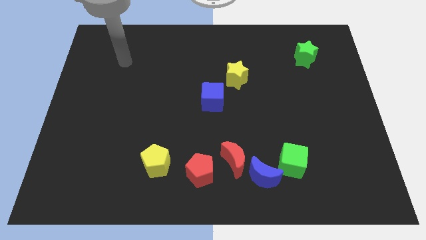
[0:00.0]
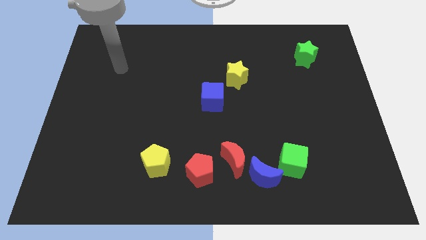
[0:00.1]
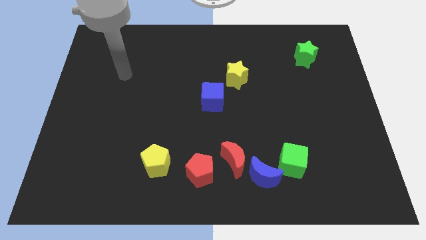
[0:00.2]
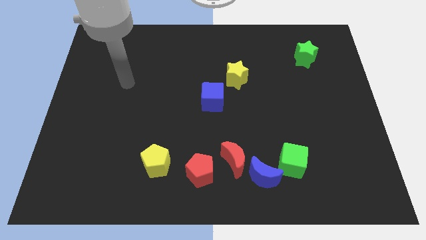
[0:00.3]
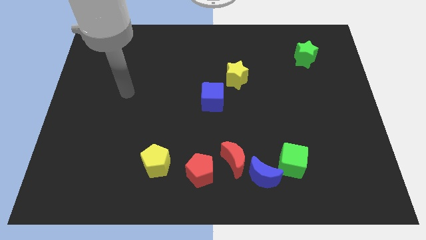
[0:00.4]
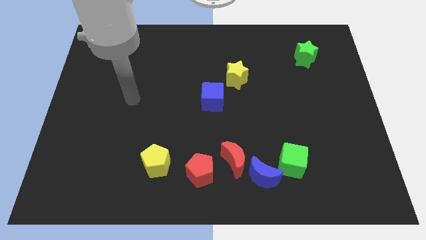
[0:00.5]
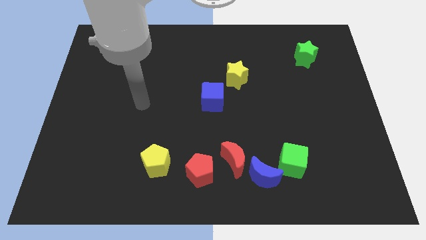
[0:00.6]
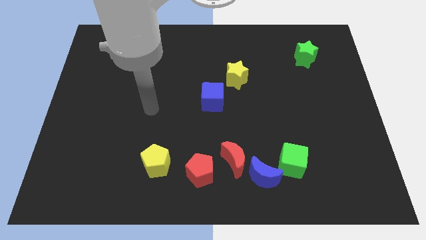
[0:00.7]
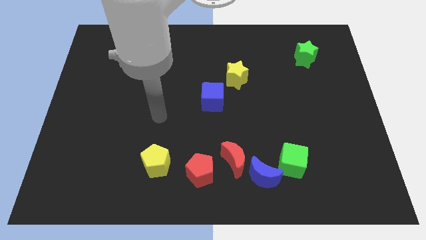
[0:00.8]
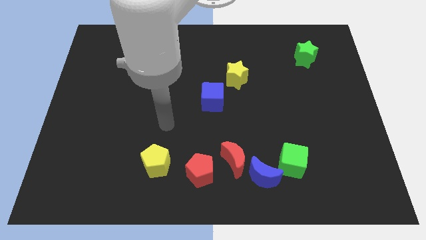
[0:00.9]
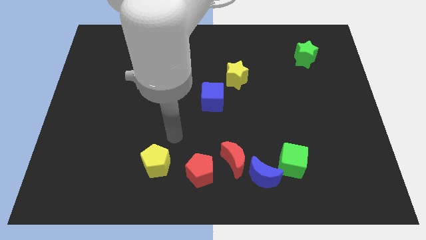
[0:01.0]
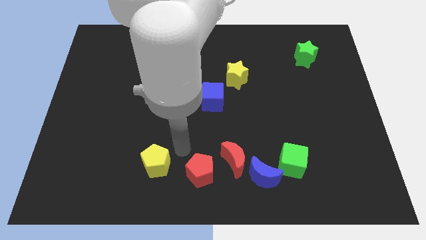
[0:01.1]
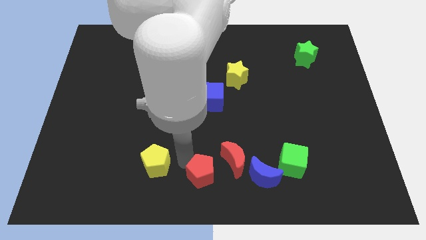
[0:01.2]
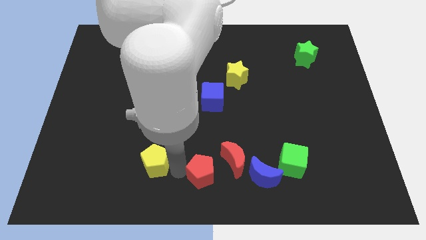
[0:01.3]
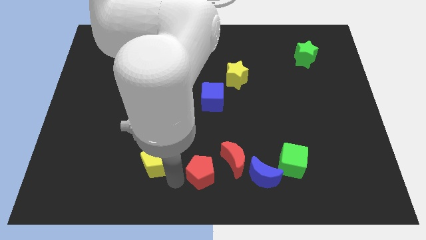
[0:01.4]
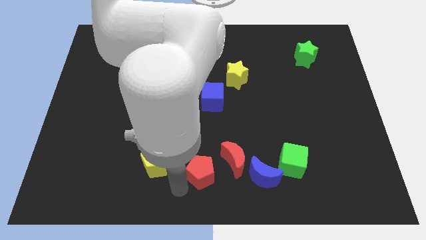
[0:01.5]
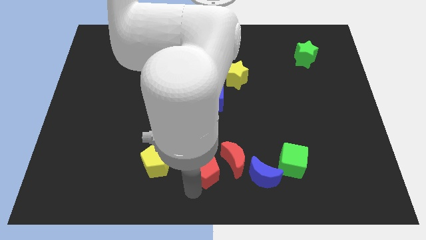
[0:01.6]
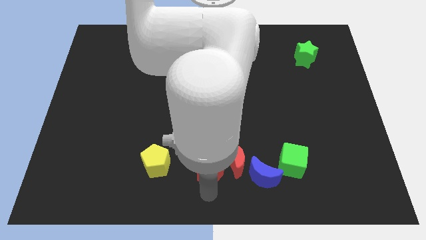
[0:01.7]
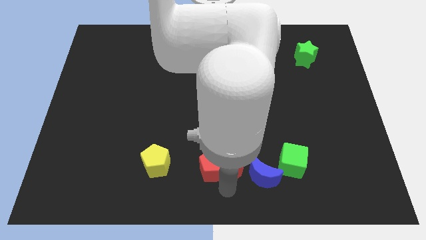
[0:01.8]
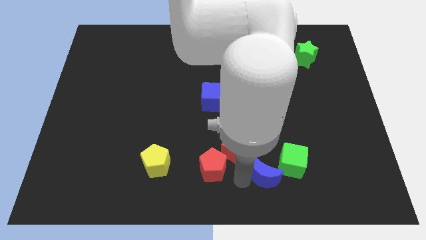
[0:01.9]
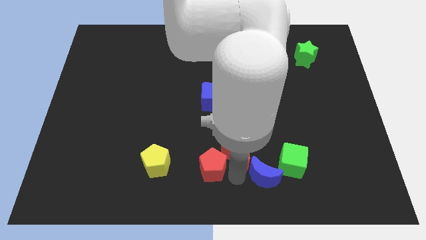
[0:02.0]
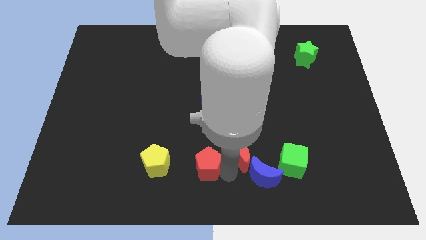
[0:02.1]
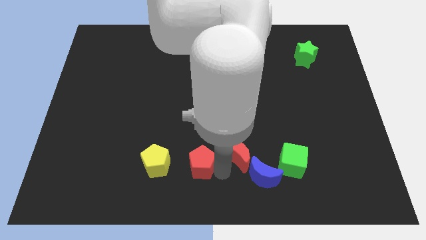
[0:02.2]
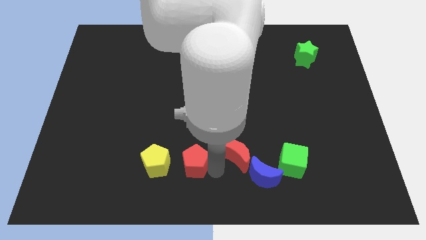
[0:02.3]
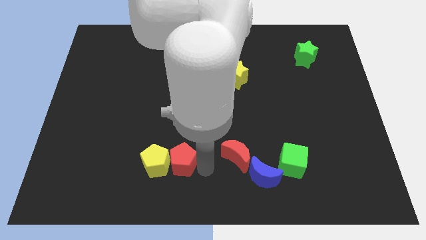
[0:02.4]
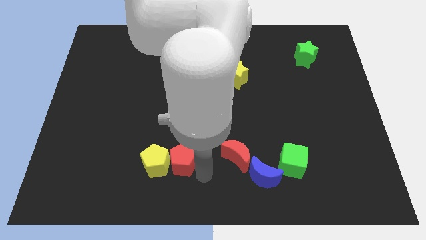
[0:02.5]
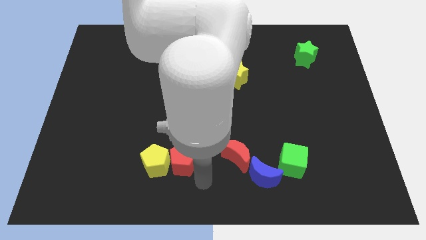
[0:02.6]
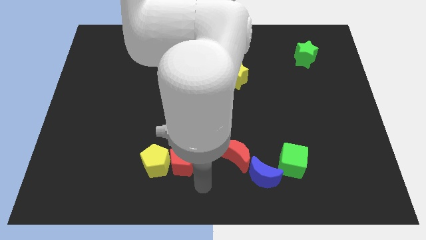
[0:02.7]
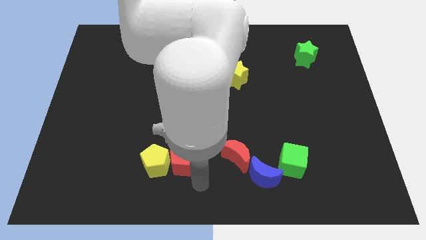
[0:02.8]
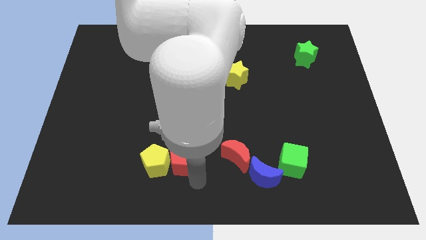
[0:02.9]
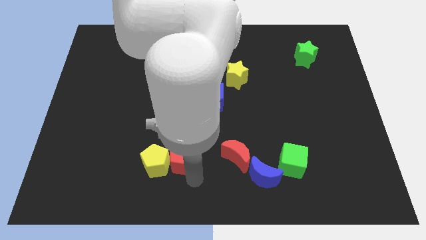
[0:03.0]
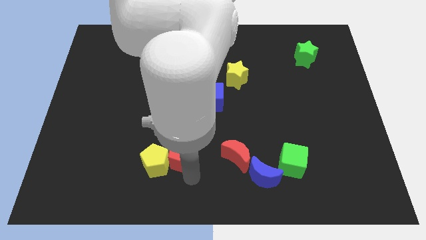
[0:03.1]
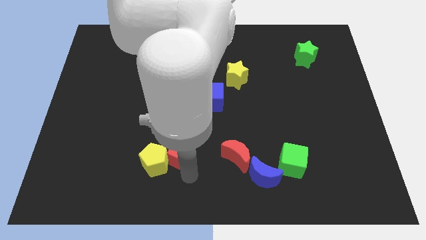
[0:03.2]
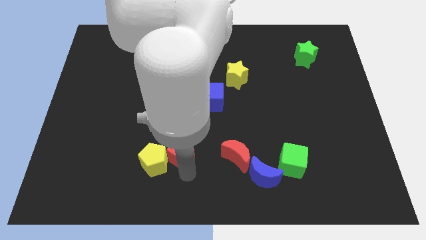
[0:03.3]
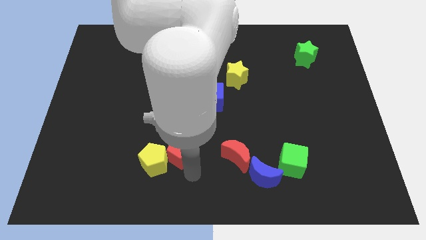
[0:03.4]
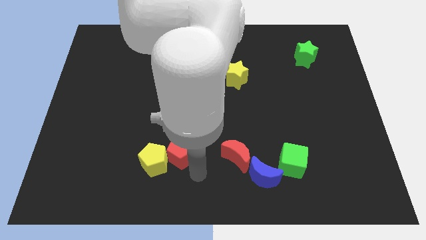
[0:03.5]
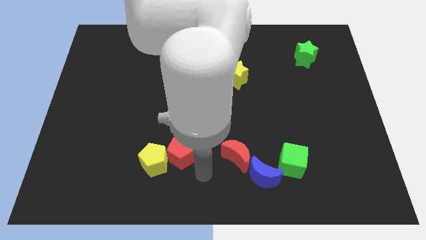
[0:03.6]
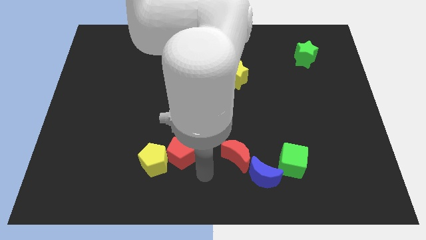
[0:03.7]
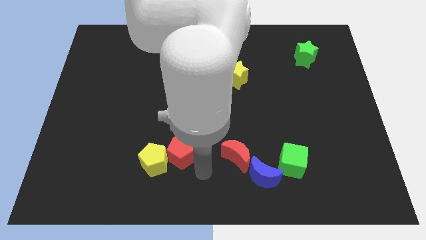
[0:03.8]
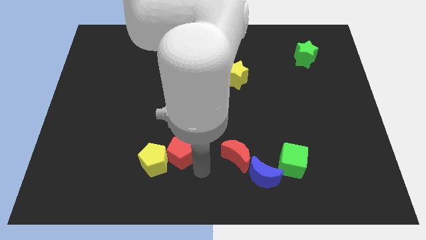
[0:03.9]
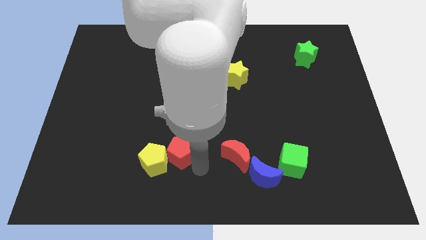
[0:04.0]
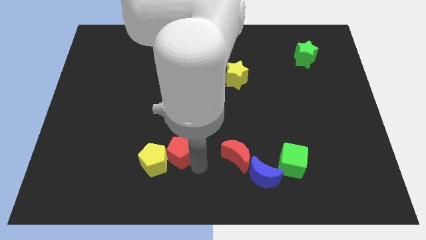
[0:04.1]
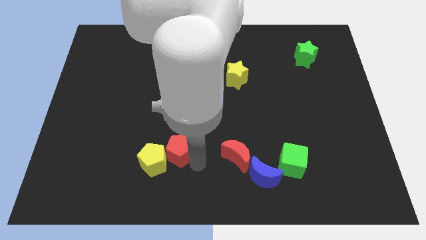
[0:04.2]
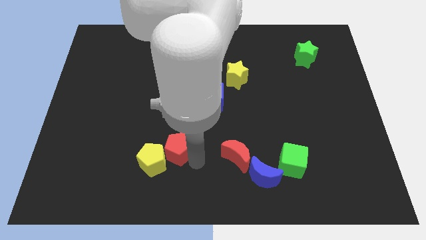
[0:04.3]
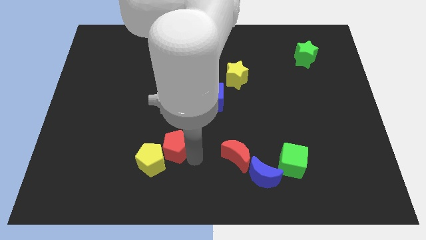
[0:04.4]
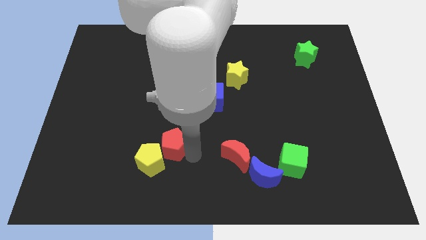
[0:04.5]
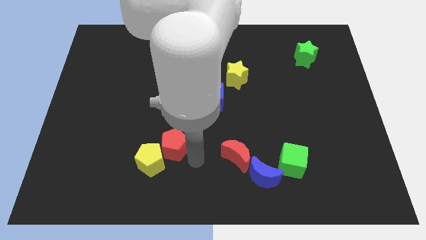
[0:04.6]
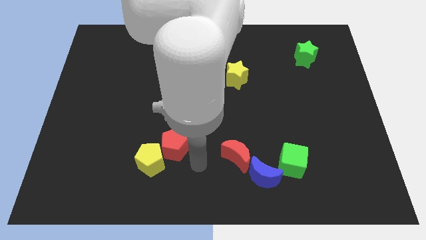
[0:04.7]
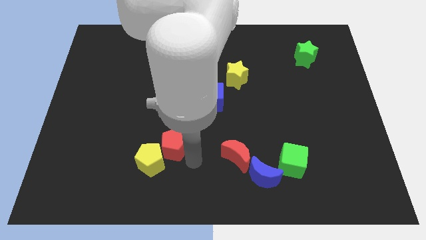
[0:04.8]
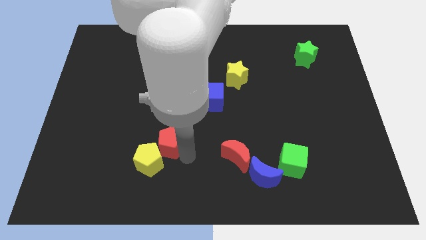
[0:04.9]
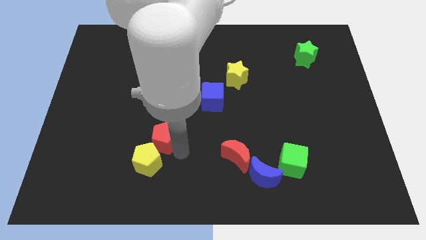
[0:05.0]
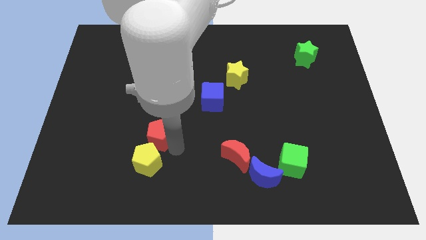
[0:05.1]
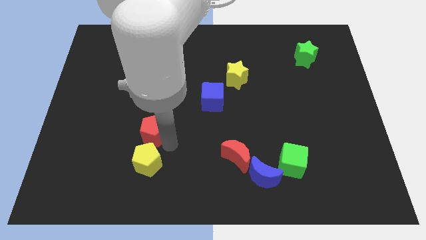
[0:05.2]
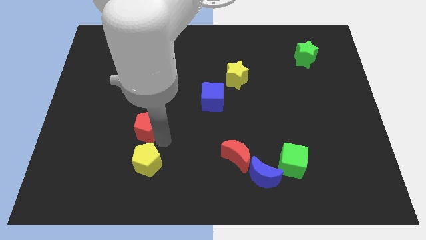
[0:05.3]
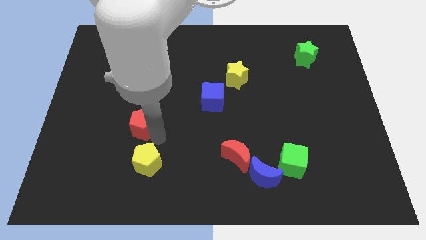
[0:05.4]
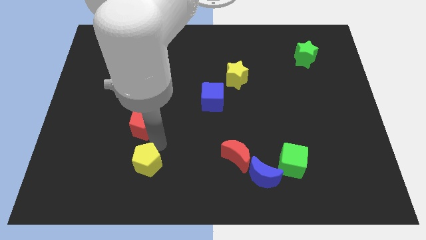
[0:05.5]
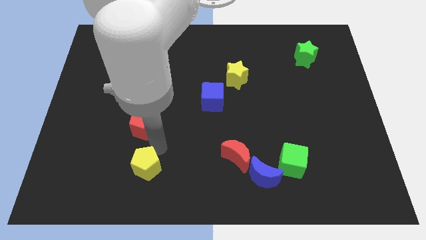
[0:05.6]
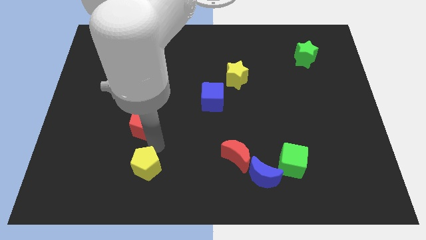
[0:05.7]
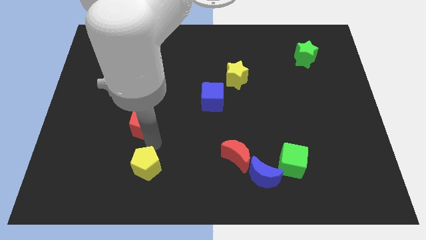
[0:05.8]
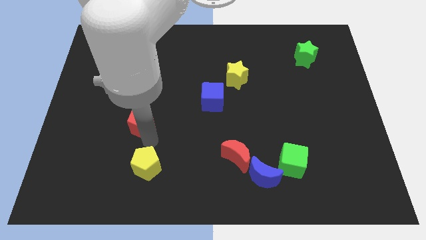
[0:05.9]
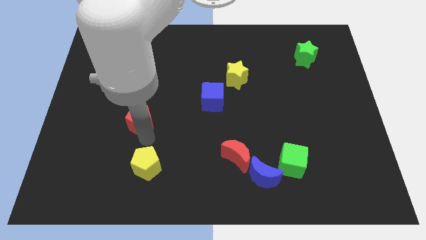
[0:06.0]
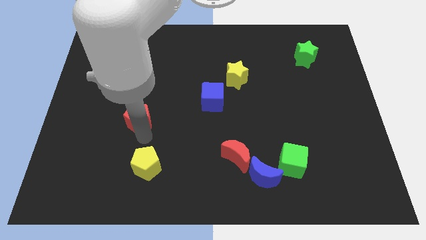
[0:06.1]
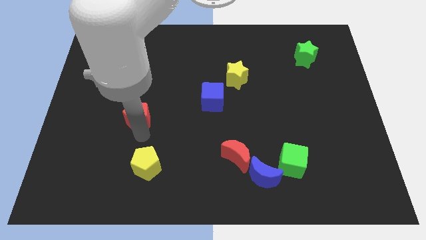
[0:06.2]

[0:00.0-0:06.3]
slide the red pentagon diagonally upwards and to the left

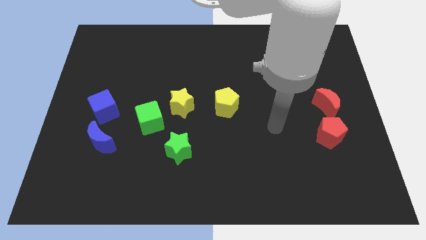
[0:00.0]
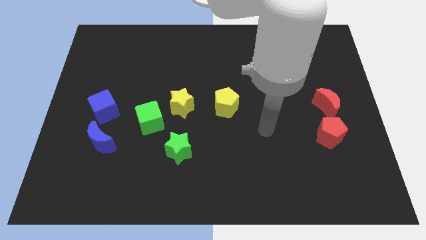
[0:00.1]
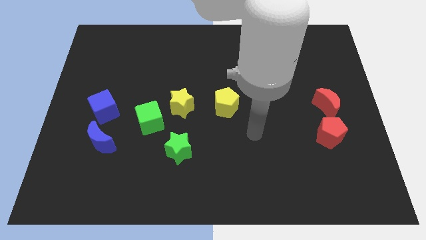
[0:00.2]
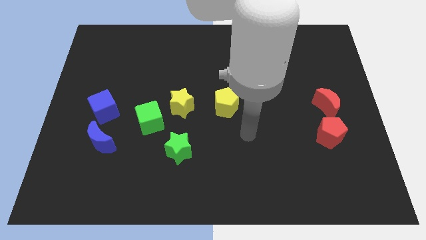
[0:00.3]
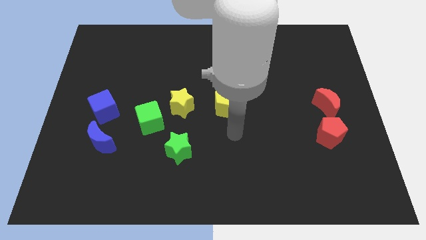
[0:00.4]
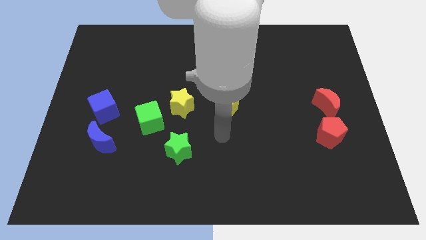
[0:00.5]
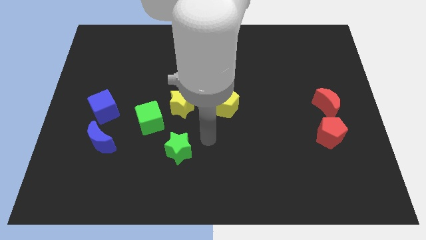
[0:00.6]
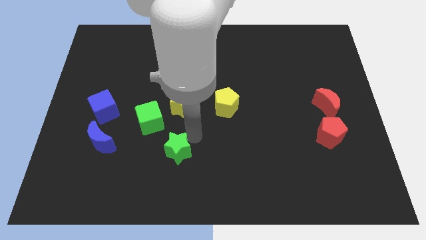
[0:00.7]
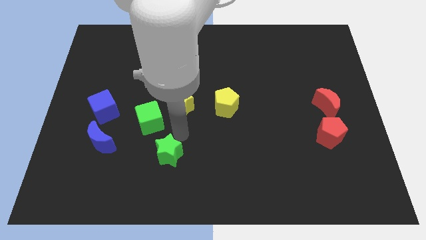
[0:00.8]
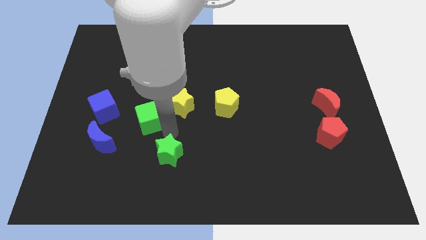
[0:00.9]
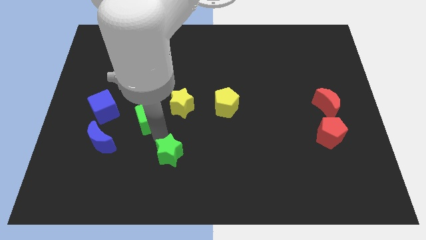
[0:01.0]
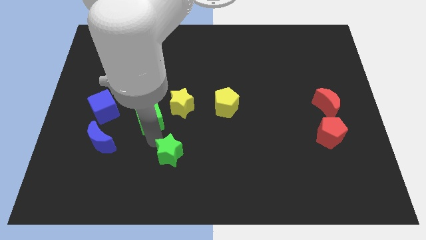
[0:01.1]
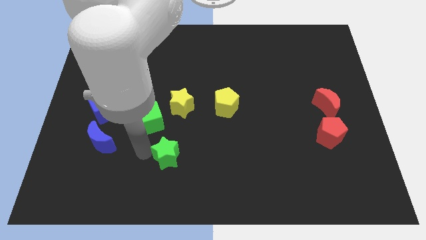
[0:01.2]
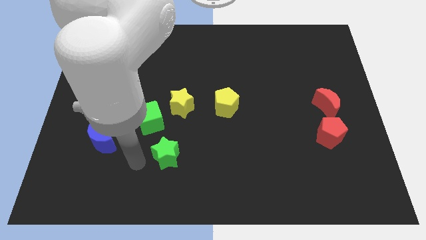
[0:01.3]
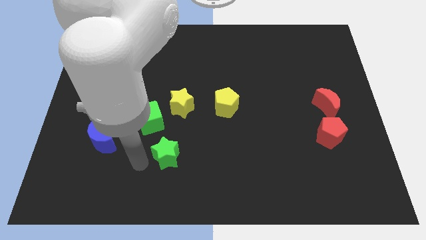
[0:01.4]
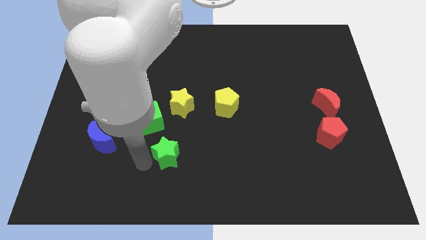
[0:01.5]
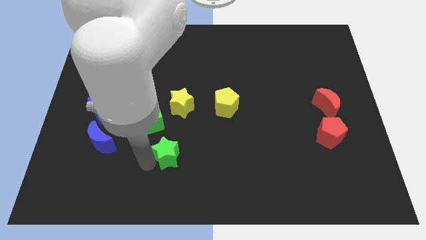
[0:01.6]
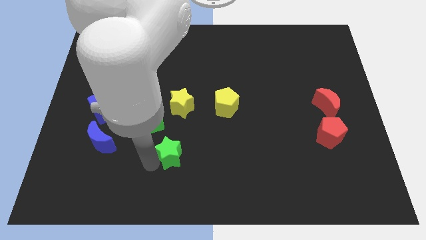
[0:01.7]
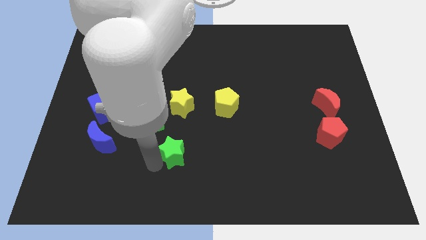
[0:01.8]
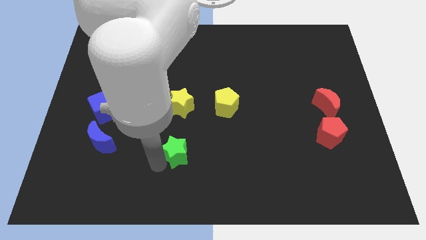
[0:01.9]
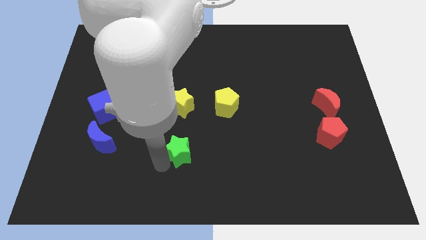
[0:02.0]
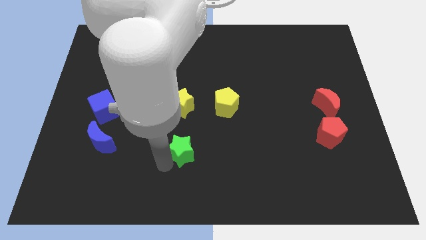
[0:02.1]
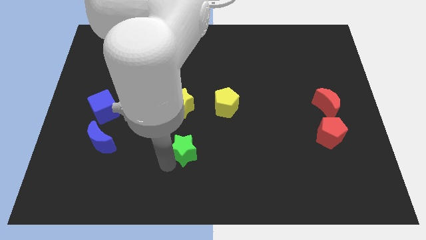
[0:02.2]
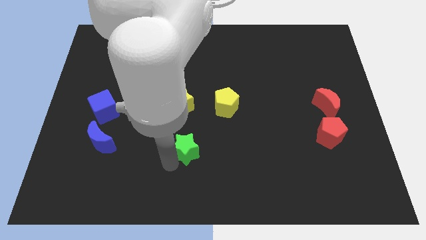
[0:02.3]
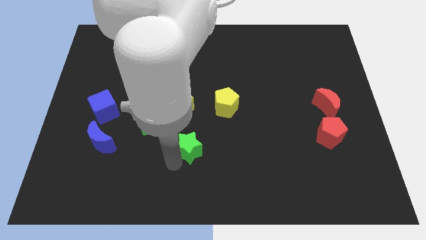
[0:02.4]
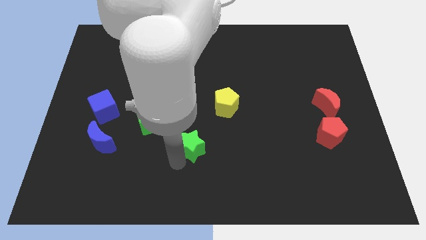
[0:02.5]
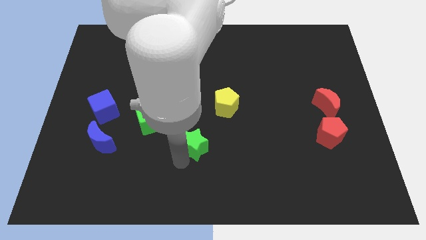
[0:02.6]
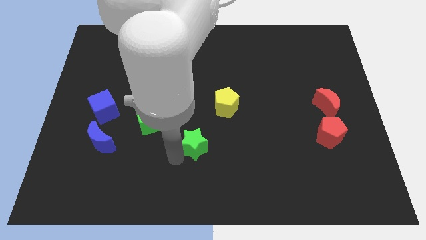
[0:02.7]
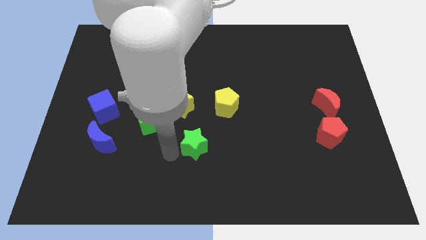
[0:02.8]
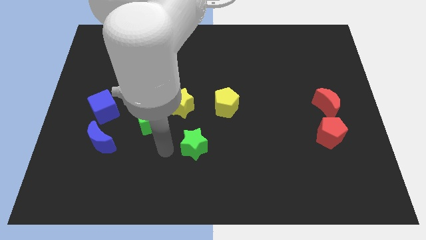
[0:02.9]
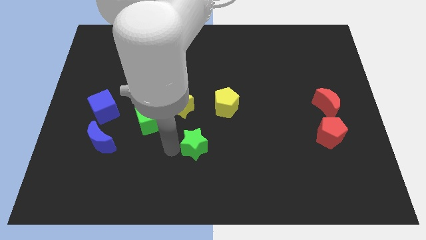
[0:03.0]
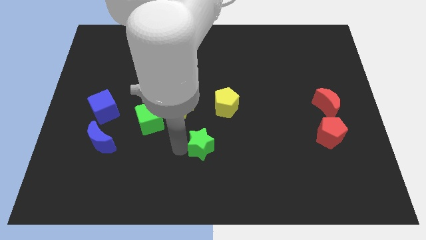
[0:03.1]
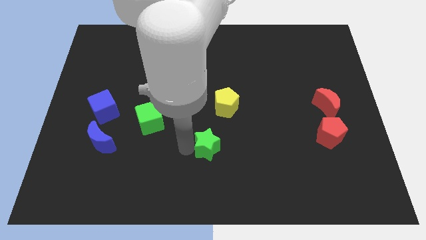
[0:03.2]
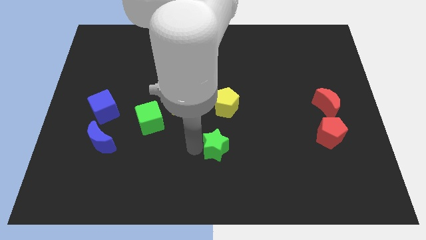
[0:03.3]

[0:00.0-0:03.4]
slightly push the green star right
